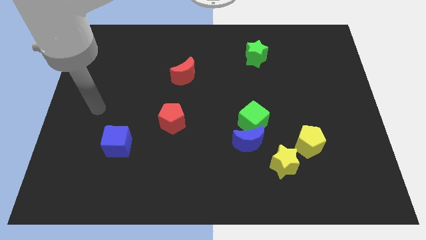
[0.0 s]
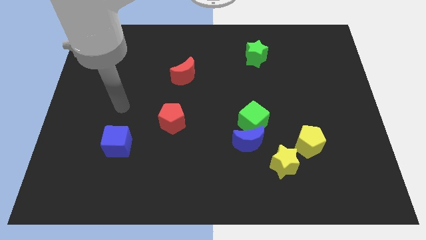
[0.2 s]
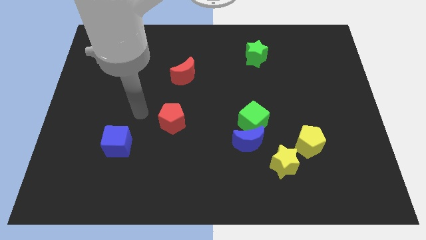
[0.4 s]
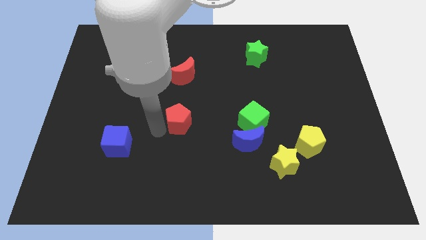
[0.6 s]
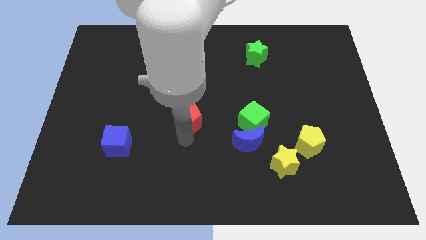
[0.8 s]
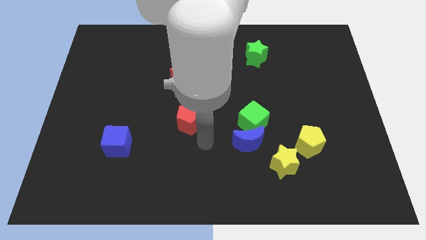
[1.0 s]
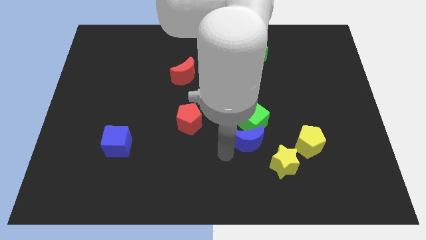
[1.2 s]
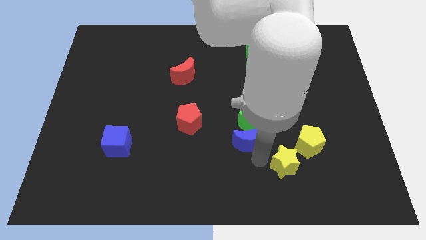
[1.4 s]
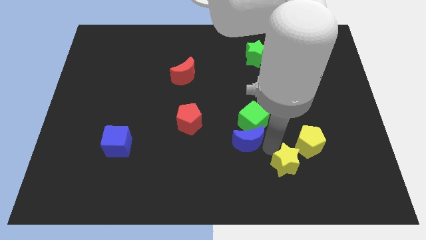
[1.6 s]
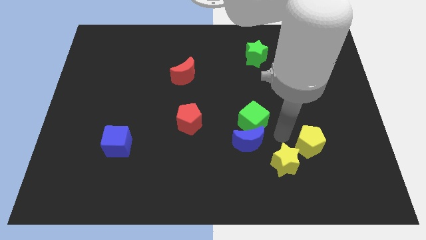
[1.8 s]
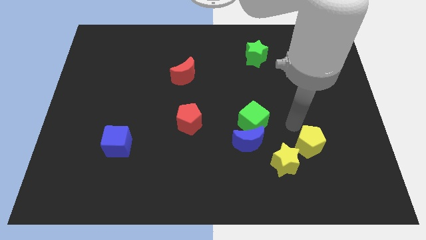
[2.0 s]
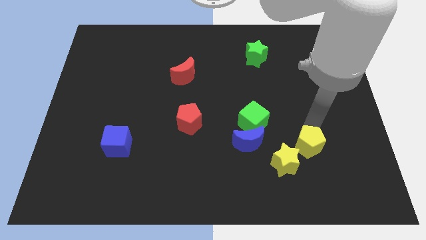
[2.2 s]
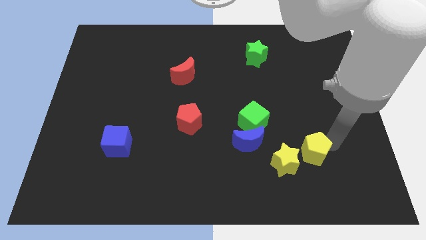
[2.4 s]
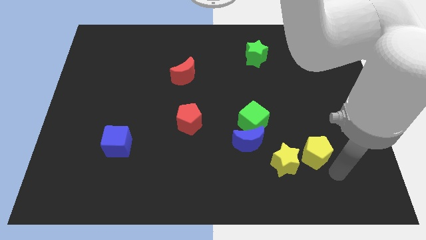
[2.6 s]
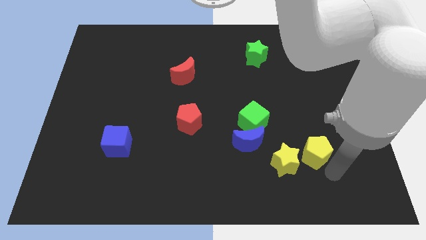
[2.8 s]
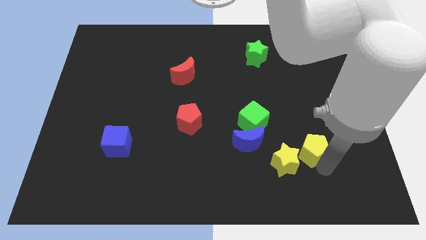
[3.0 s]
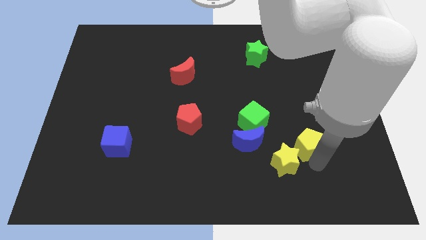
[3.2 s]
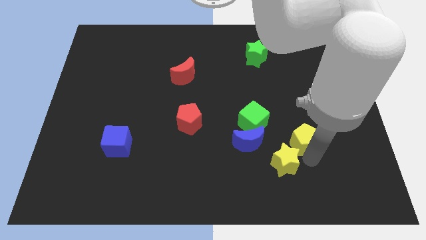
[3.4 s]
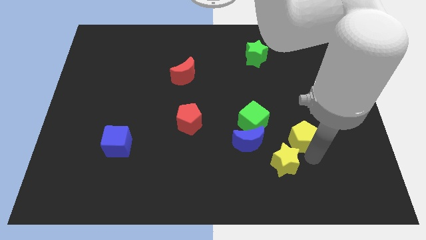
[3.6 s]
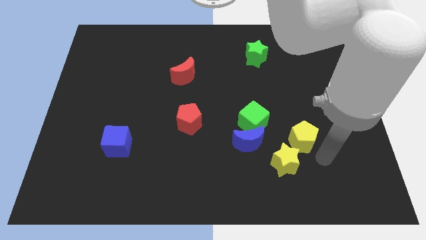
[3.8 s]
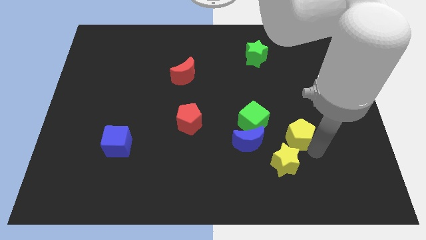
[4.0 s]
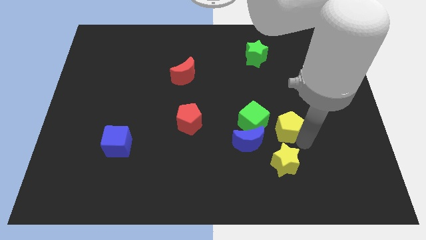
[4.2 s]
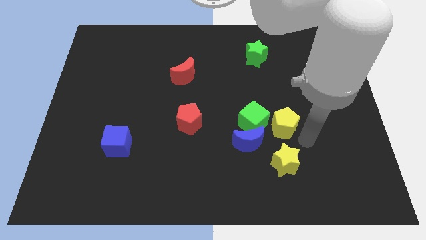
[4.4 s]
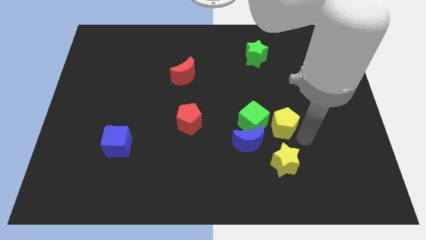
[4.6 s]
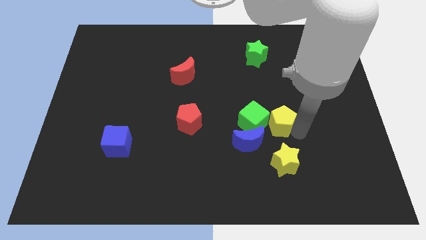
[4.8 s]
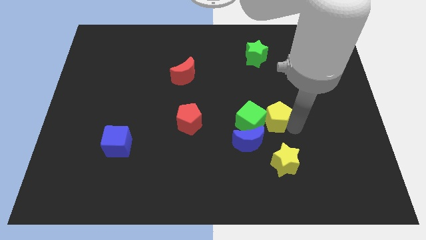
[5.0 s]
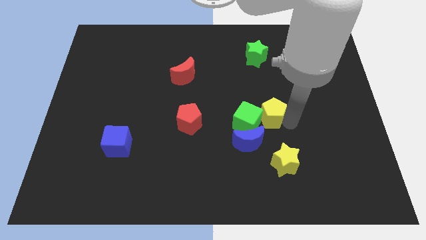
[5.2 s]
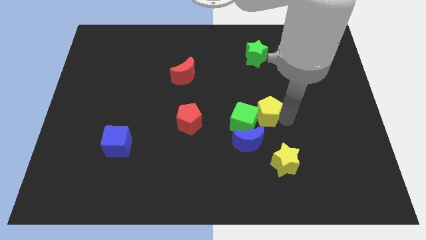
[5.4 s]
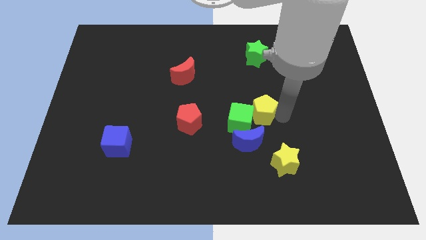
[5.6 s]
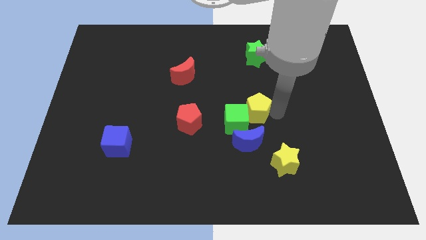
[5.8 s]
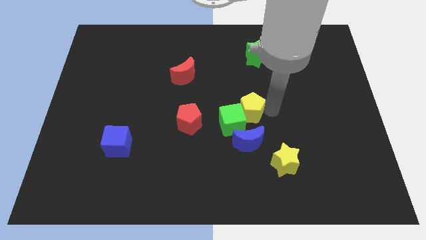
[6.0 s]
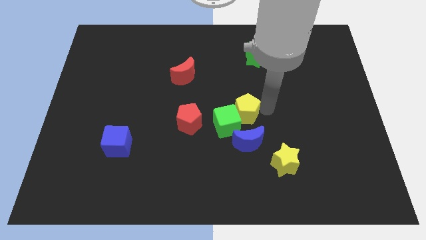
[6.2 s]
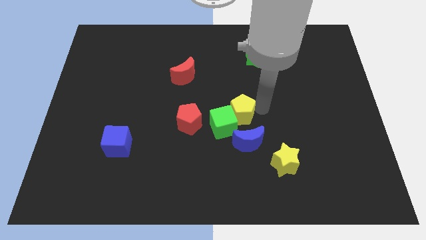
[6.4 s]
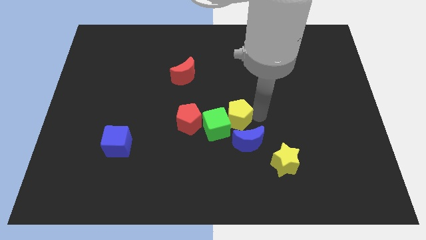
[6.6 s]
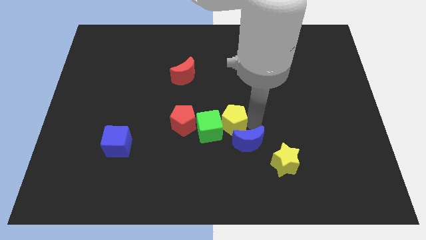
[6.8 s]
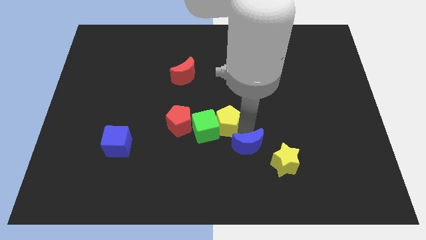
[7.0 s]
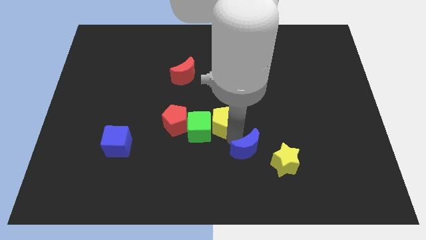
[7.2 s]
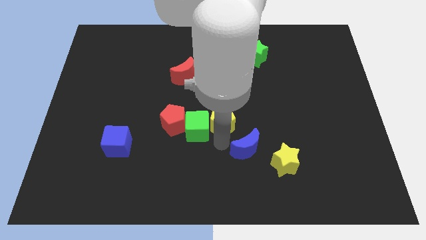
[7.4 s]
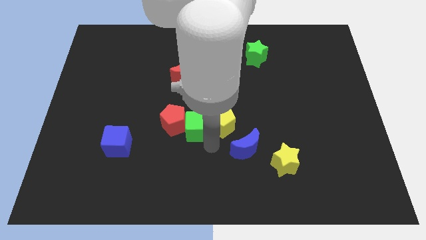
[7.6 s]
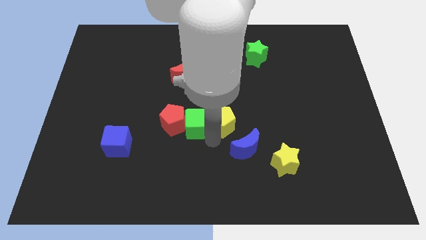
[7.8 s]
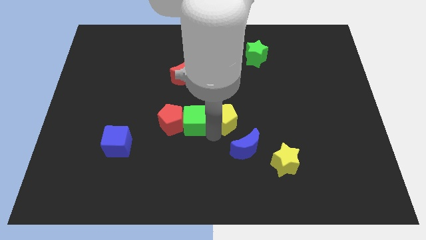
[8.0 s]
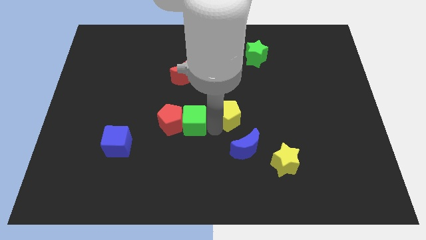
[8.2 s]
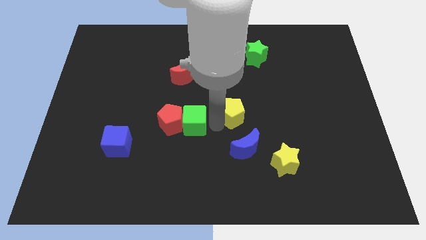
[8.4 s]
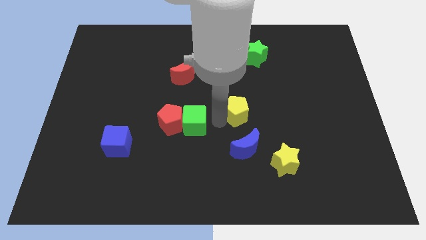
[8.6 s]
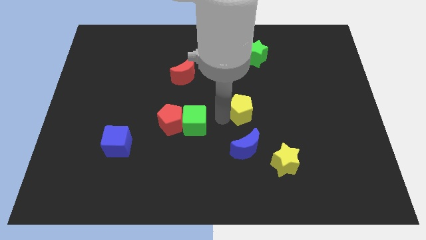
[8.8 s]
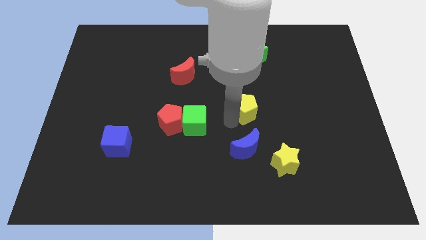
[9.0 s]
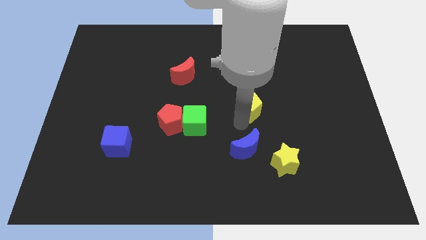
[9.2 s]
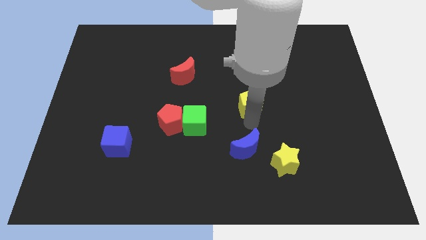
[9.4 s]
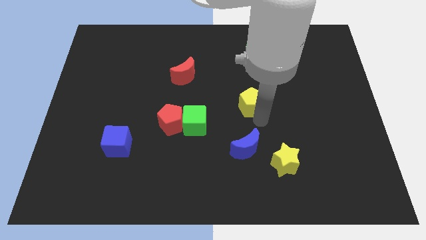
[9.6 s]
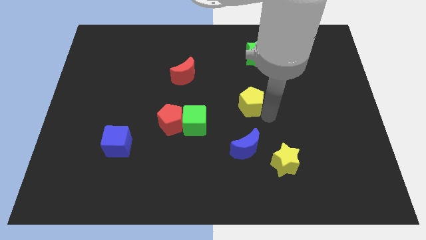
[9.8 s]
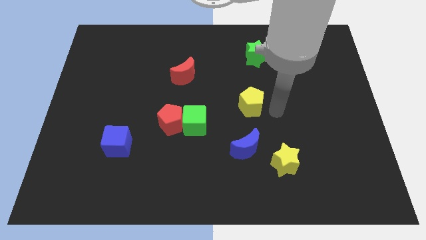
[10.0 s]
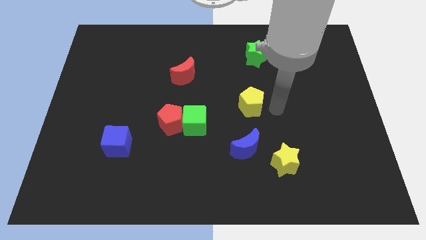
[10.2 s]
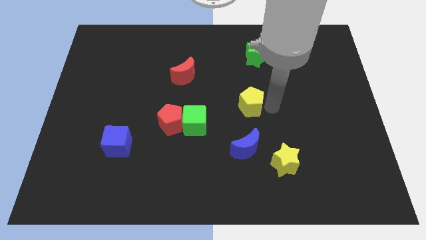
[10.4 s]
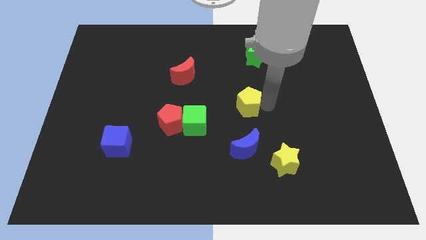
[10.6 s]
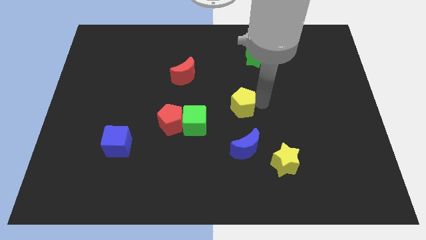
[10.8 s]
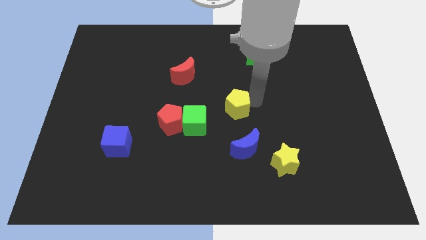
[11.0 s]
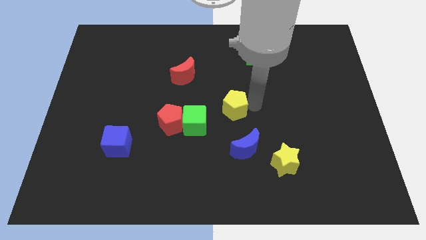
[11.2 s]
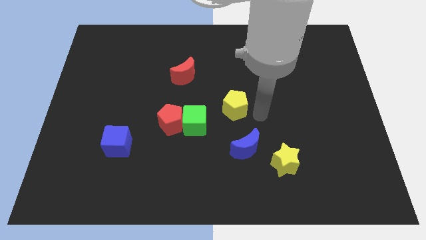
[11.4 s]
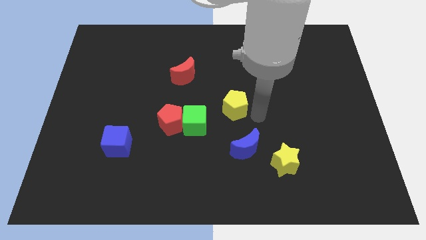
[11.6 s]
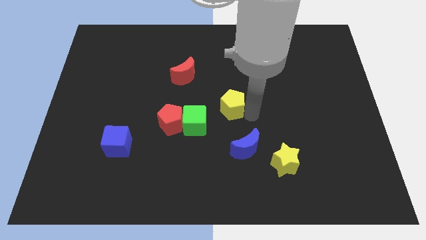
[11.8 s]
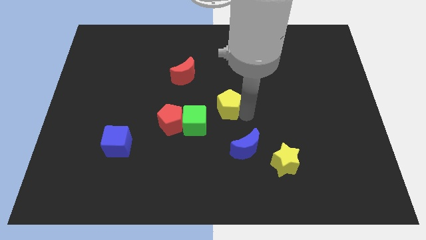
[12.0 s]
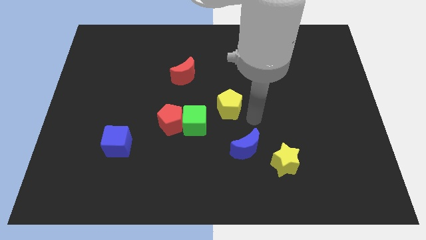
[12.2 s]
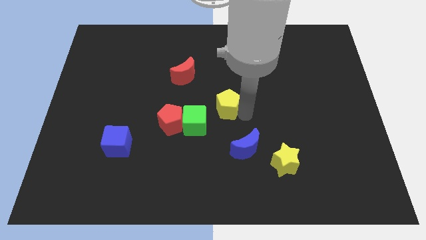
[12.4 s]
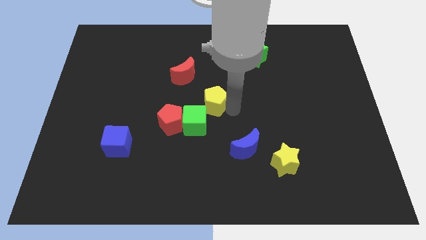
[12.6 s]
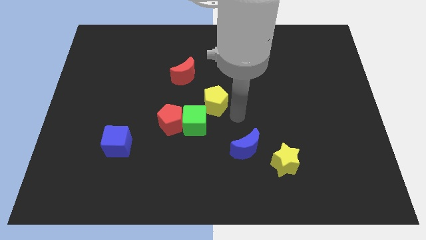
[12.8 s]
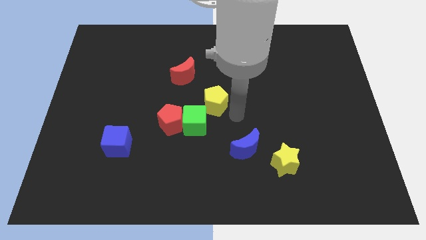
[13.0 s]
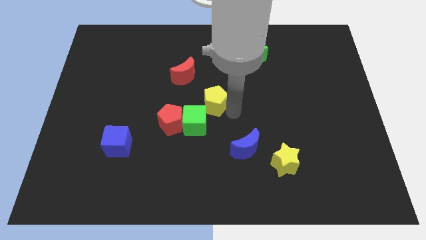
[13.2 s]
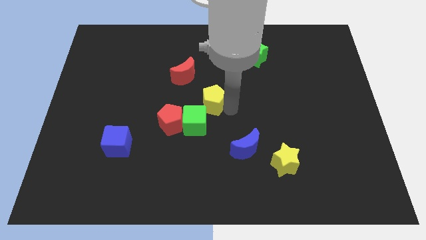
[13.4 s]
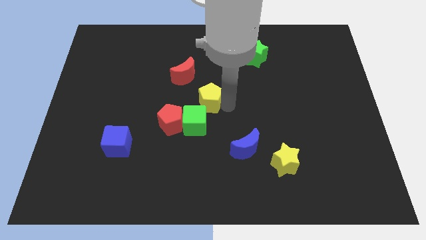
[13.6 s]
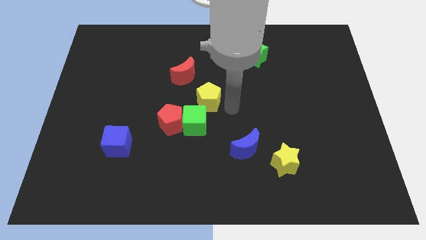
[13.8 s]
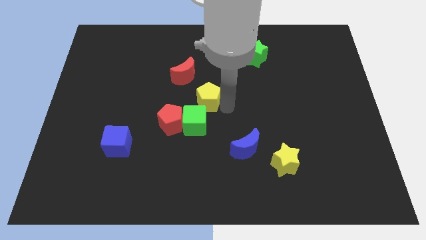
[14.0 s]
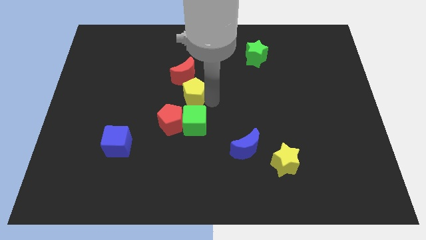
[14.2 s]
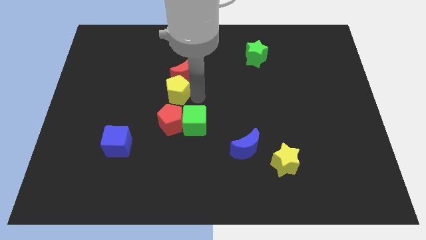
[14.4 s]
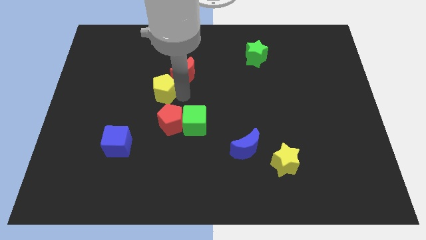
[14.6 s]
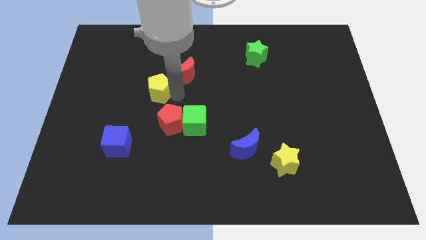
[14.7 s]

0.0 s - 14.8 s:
slide the yellow pentagon just left of the red moon
